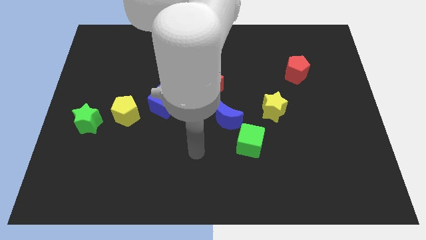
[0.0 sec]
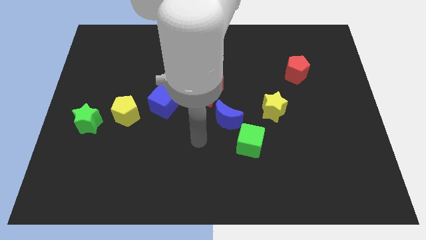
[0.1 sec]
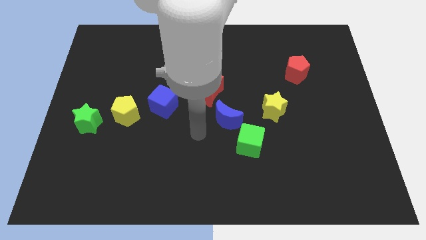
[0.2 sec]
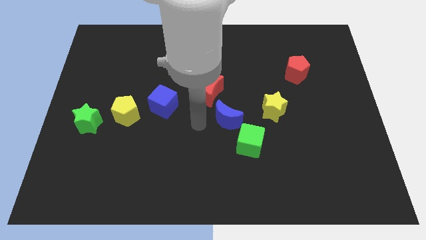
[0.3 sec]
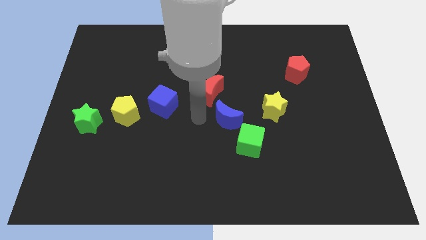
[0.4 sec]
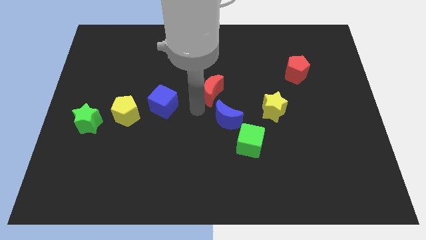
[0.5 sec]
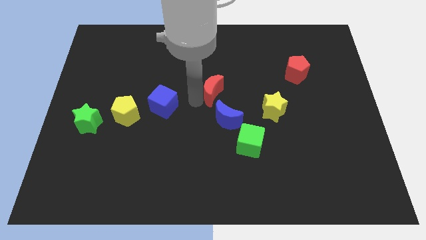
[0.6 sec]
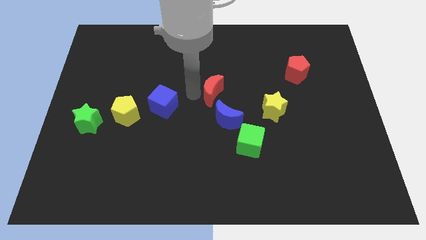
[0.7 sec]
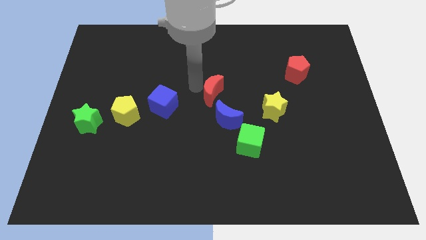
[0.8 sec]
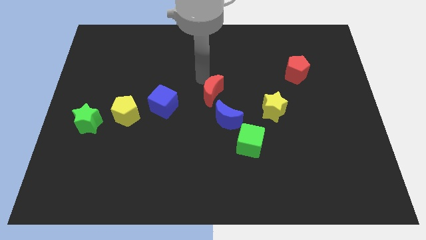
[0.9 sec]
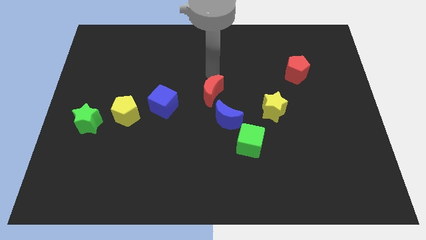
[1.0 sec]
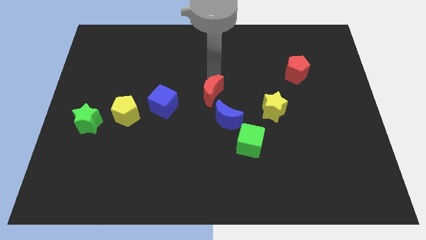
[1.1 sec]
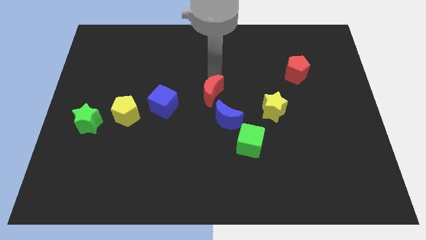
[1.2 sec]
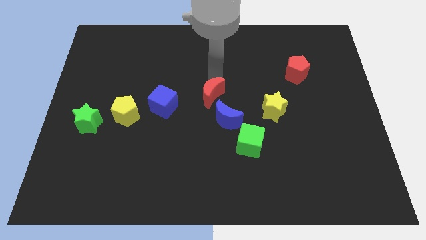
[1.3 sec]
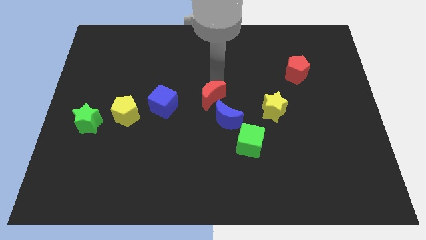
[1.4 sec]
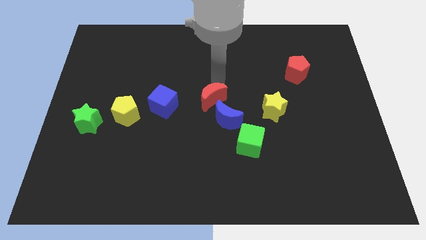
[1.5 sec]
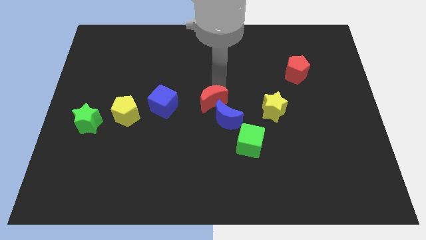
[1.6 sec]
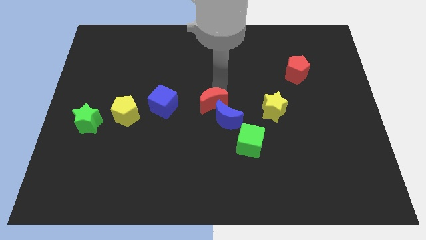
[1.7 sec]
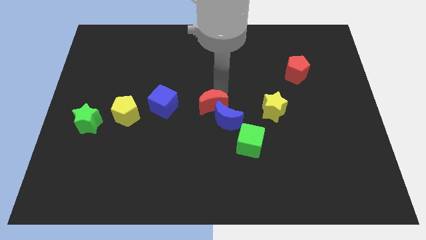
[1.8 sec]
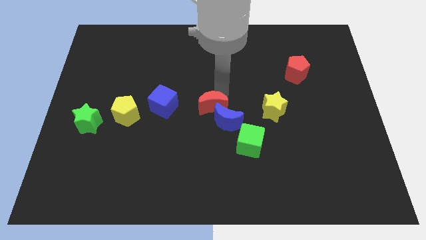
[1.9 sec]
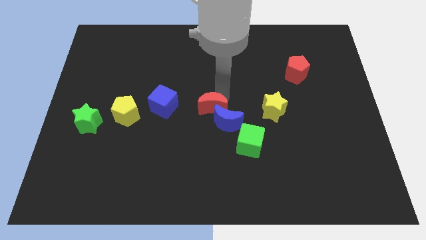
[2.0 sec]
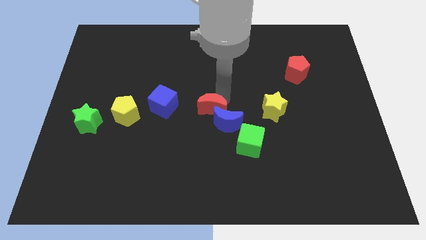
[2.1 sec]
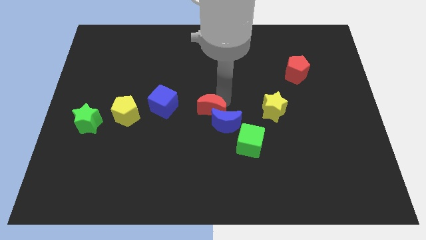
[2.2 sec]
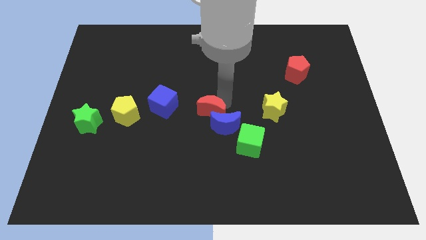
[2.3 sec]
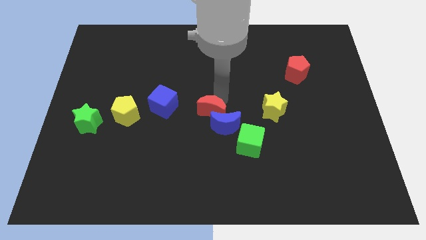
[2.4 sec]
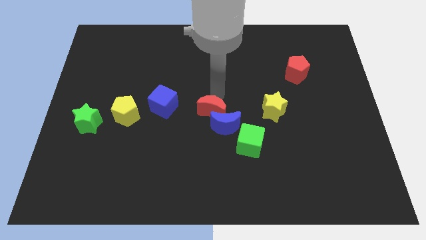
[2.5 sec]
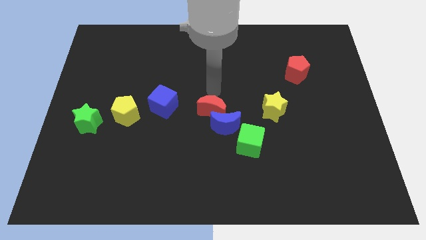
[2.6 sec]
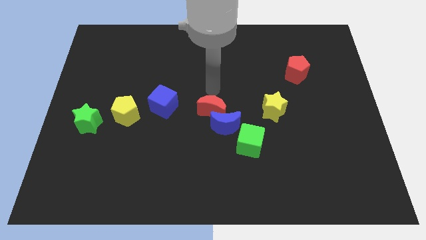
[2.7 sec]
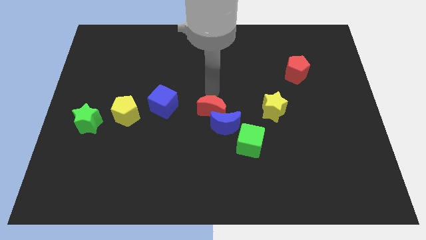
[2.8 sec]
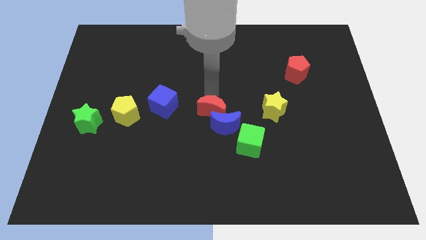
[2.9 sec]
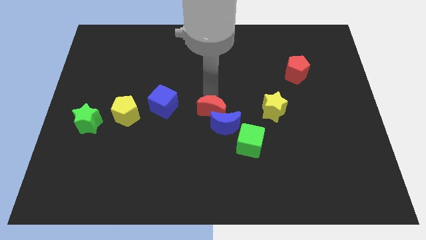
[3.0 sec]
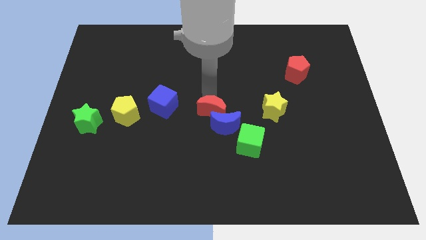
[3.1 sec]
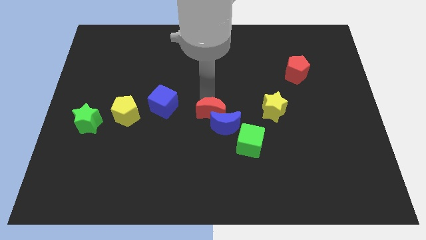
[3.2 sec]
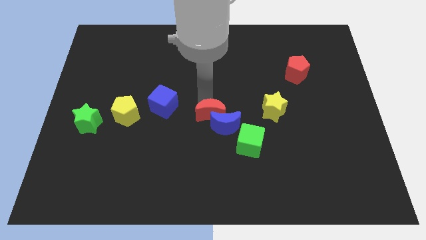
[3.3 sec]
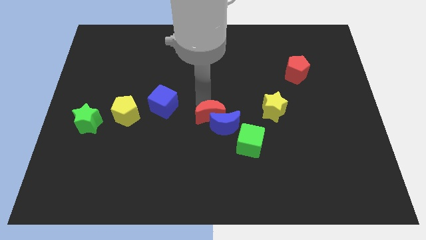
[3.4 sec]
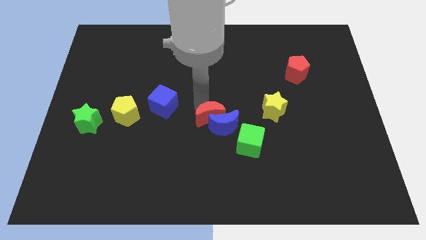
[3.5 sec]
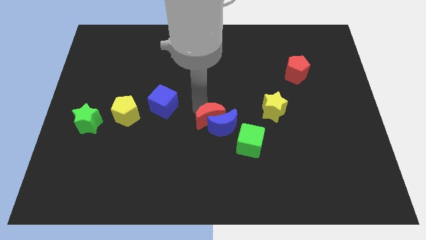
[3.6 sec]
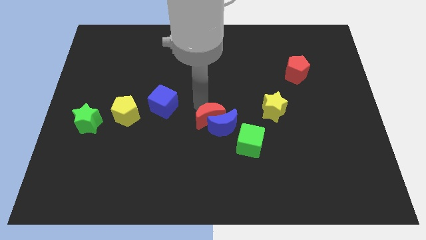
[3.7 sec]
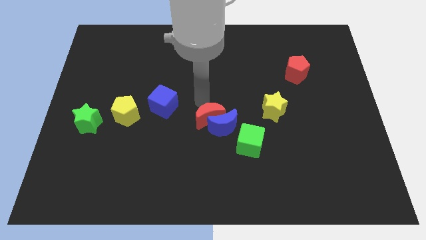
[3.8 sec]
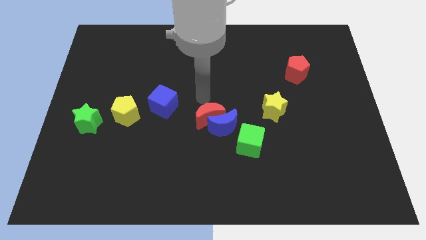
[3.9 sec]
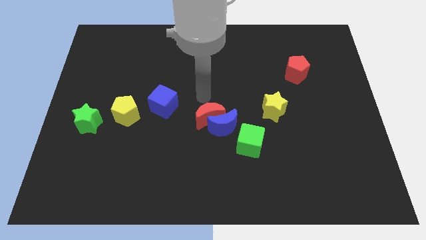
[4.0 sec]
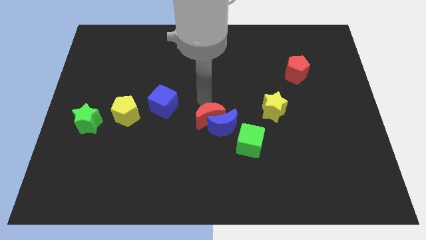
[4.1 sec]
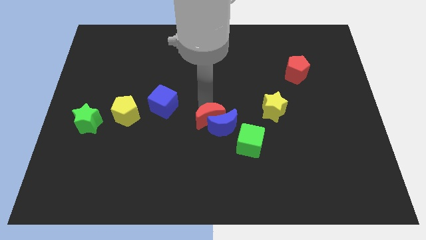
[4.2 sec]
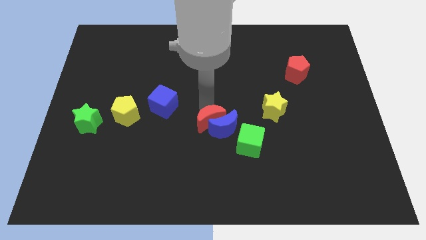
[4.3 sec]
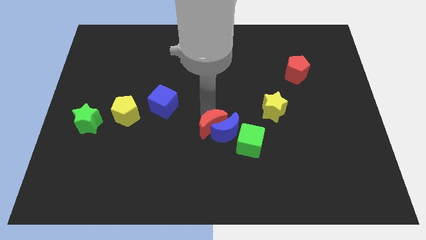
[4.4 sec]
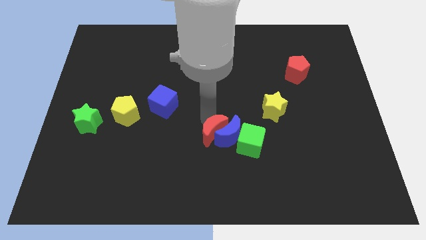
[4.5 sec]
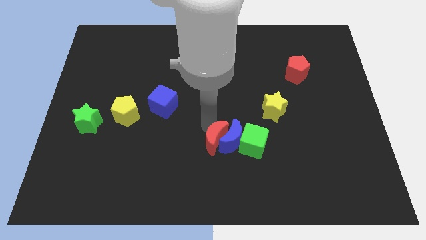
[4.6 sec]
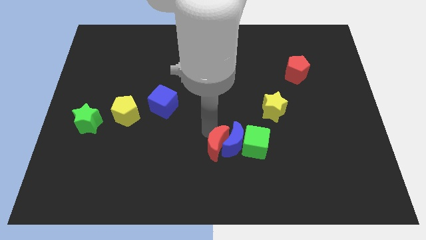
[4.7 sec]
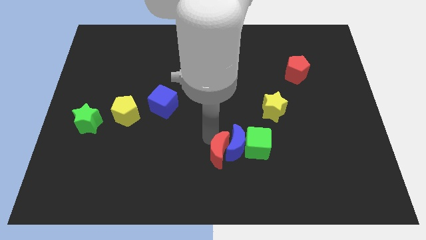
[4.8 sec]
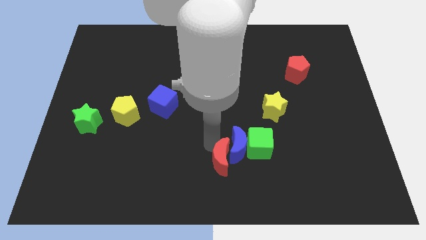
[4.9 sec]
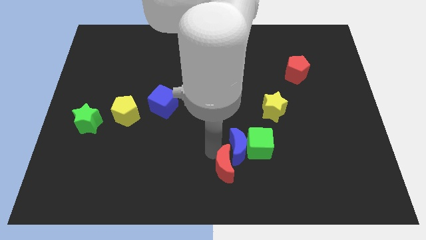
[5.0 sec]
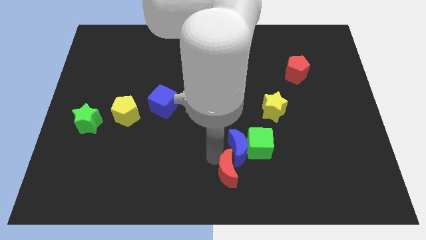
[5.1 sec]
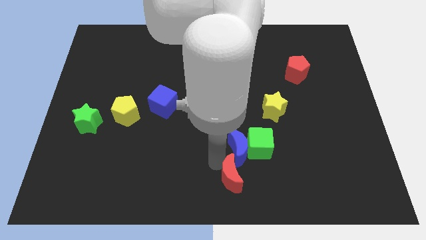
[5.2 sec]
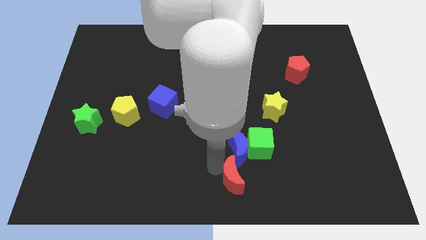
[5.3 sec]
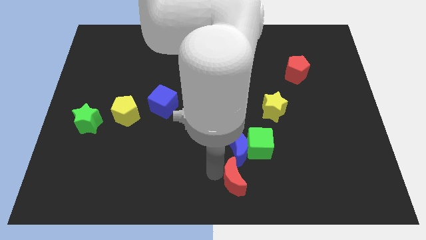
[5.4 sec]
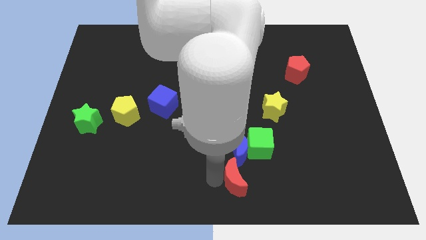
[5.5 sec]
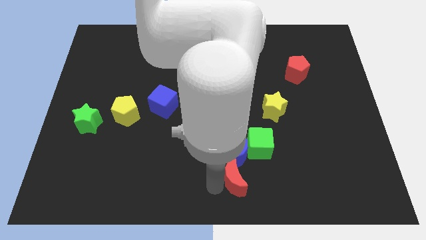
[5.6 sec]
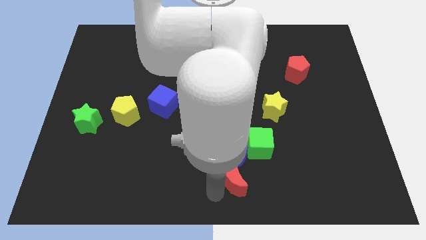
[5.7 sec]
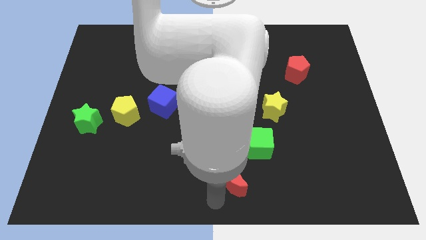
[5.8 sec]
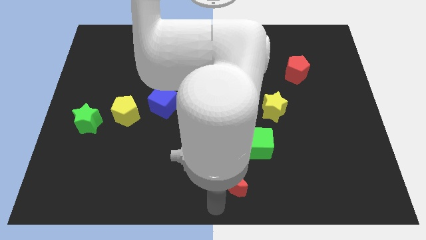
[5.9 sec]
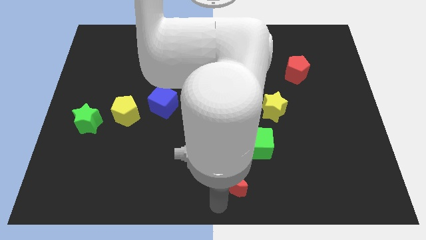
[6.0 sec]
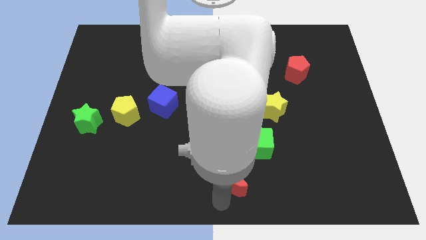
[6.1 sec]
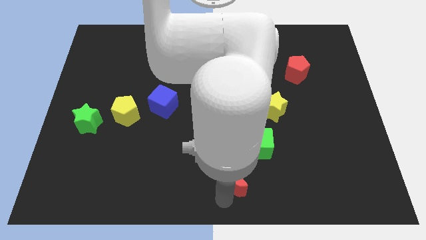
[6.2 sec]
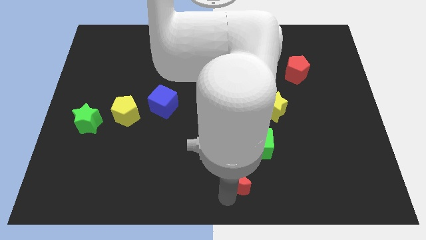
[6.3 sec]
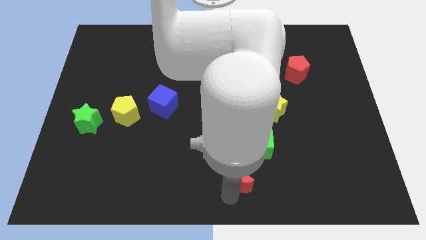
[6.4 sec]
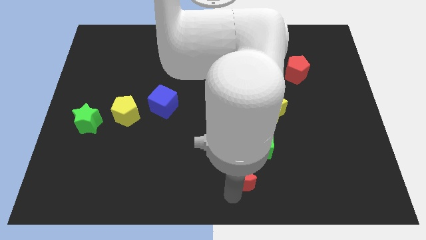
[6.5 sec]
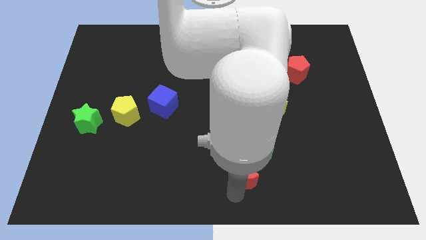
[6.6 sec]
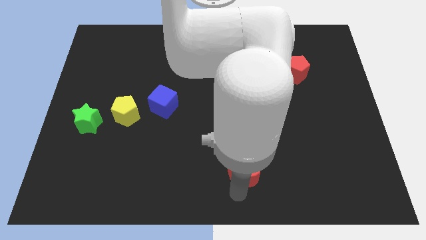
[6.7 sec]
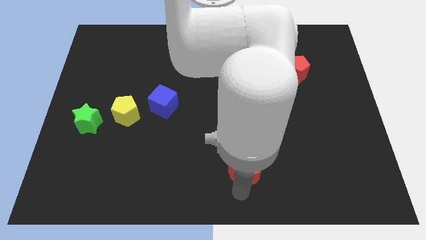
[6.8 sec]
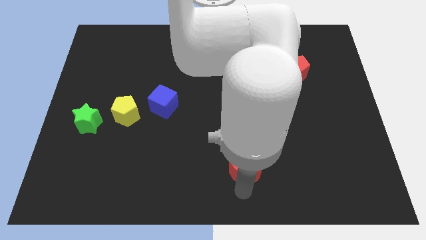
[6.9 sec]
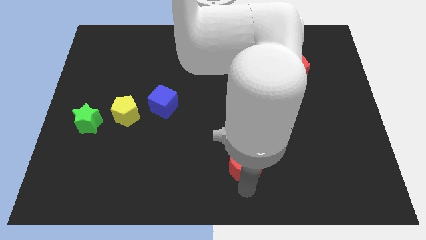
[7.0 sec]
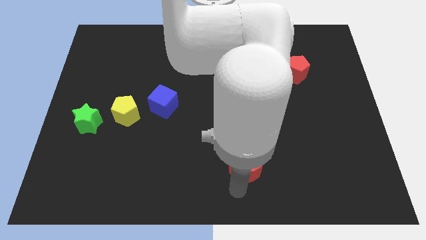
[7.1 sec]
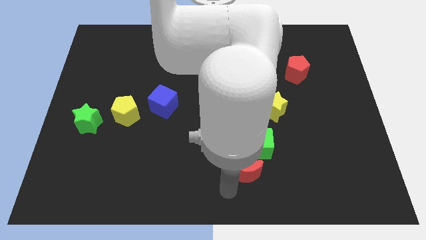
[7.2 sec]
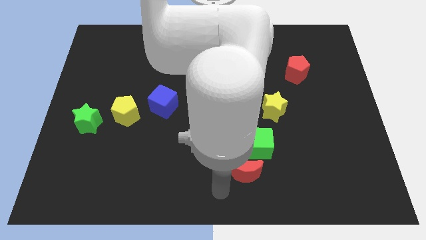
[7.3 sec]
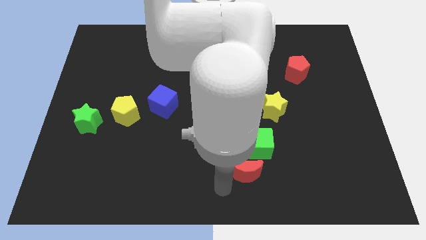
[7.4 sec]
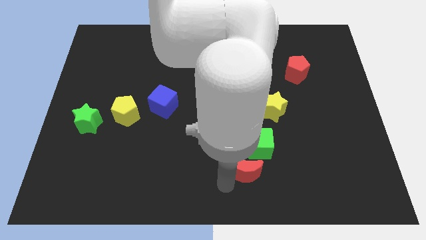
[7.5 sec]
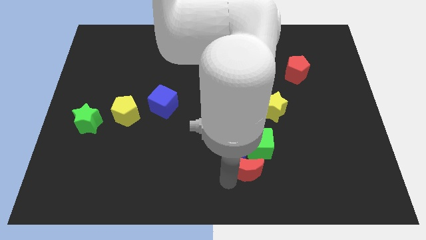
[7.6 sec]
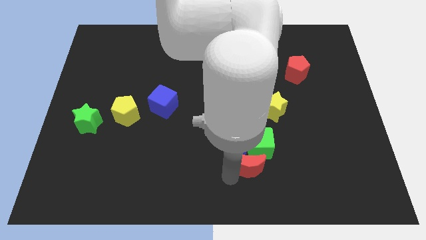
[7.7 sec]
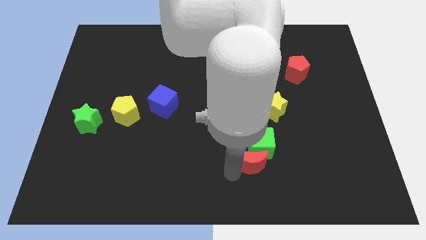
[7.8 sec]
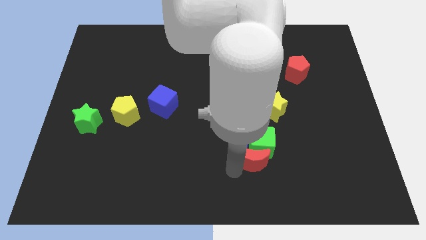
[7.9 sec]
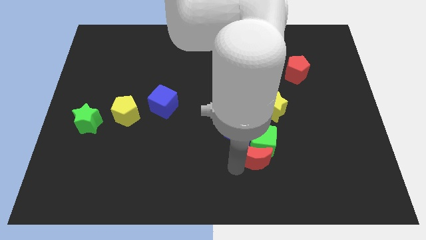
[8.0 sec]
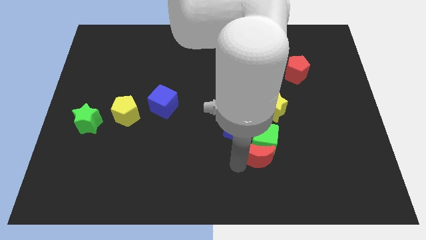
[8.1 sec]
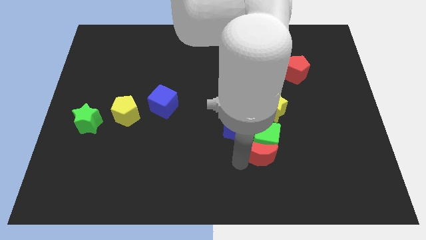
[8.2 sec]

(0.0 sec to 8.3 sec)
move the red moon to the bottom side of the yellow star
